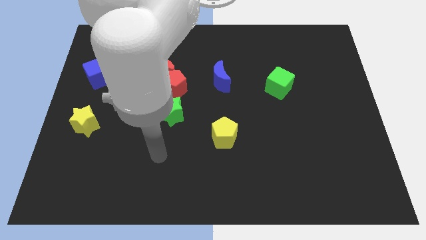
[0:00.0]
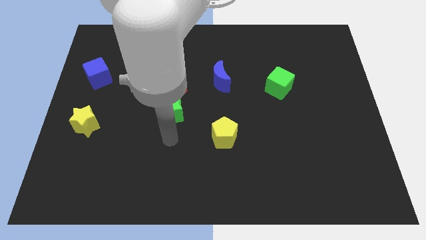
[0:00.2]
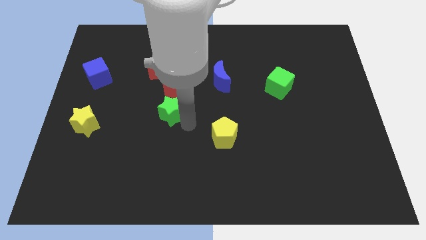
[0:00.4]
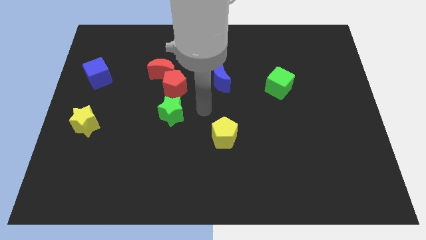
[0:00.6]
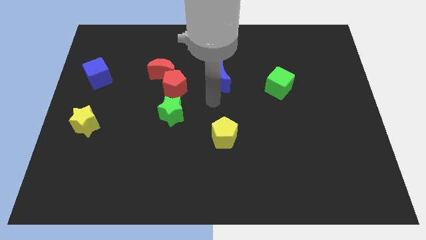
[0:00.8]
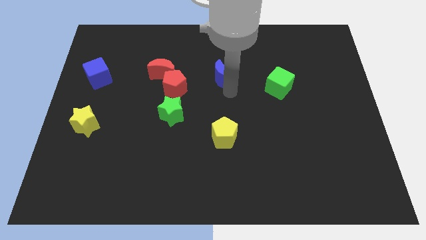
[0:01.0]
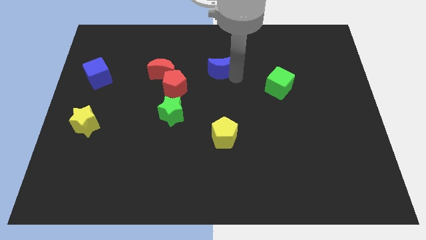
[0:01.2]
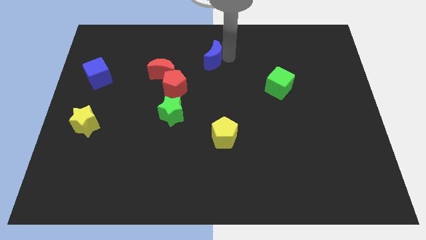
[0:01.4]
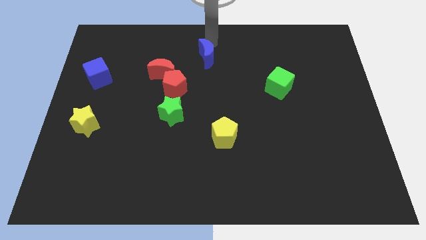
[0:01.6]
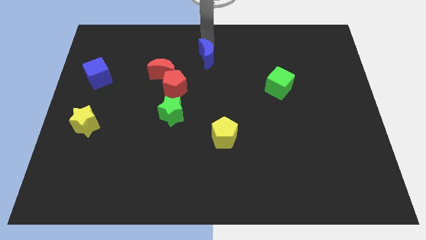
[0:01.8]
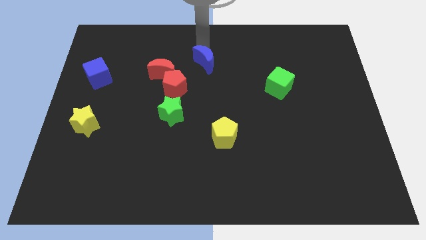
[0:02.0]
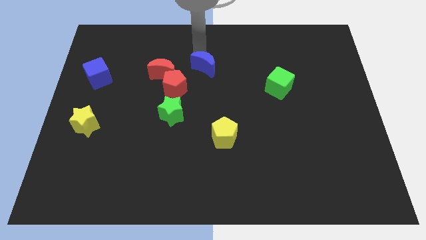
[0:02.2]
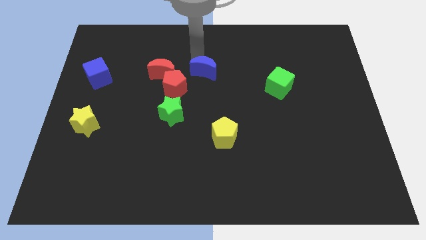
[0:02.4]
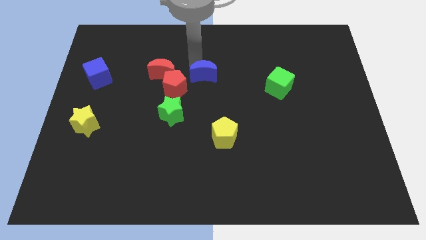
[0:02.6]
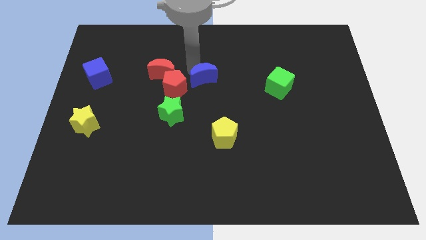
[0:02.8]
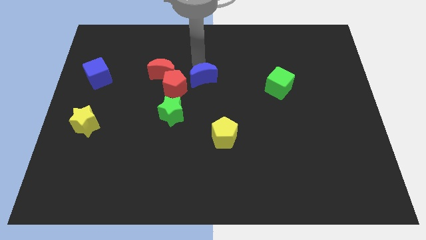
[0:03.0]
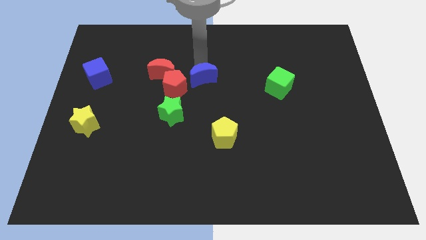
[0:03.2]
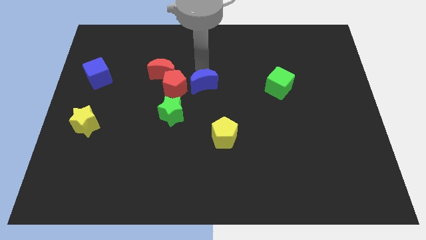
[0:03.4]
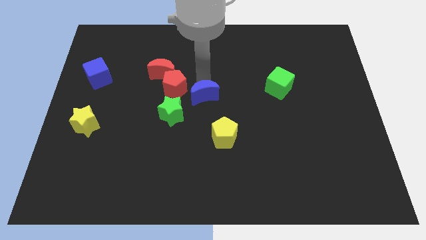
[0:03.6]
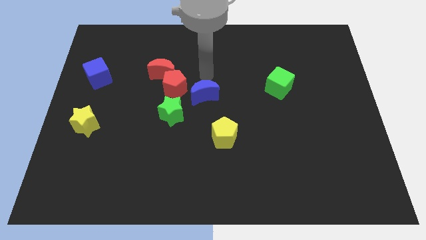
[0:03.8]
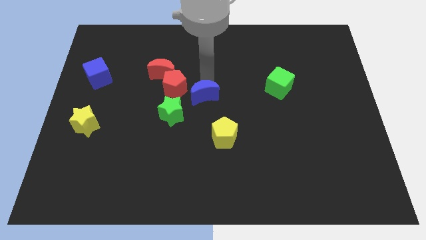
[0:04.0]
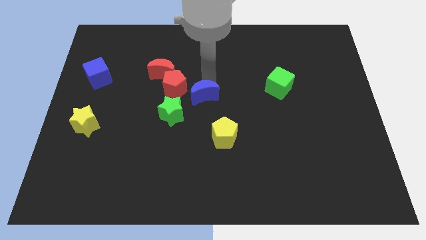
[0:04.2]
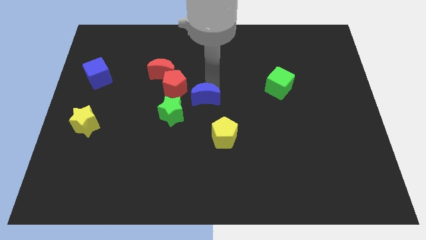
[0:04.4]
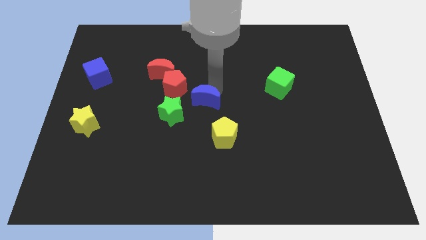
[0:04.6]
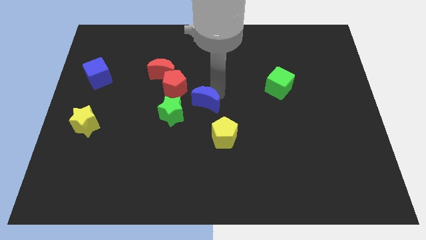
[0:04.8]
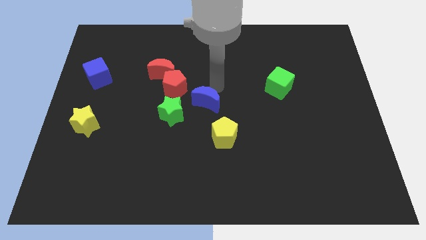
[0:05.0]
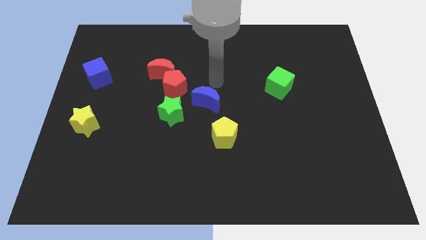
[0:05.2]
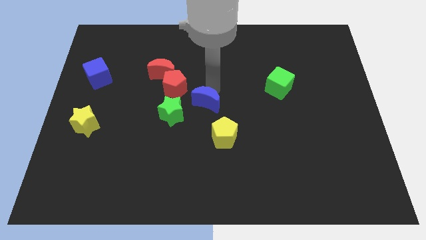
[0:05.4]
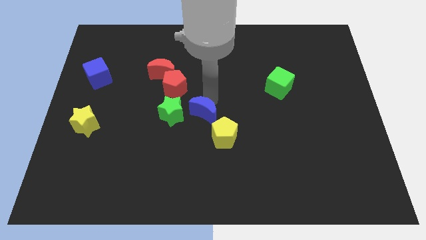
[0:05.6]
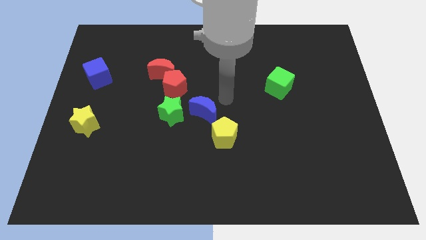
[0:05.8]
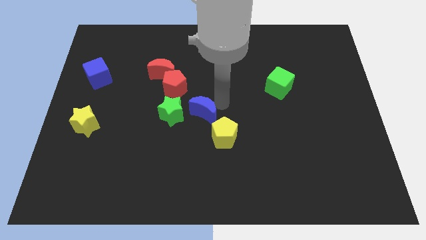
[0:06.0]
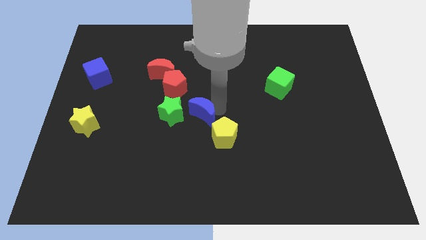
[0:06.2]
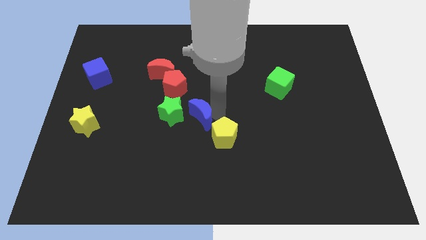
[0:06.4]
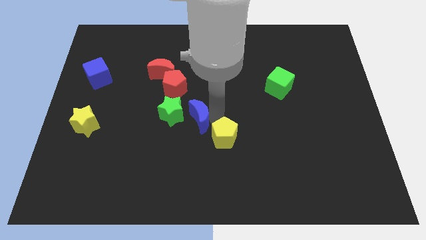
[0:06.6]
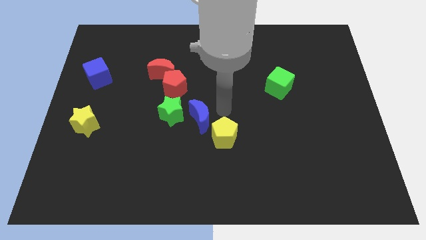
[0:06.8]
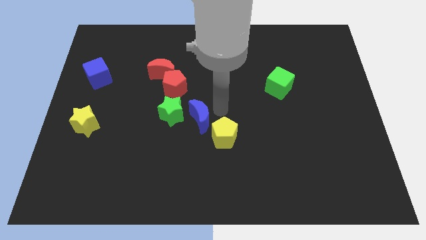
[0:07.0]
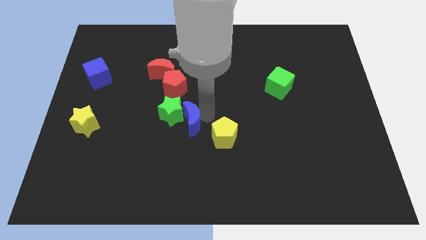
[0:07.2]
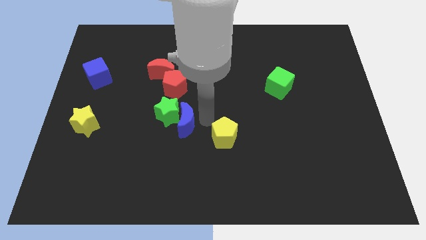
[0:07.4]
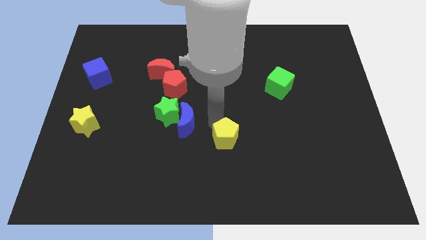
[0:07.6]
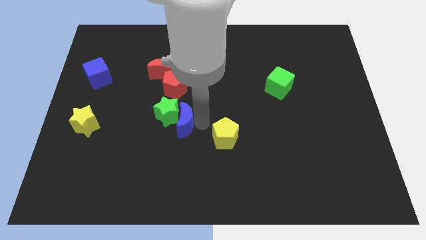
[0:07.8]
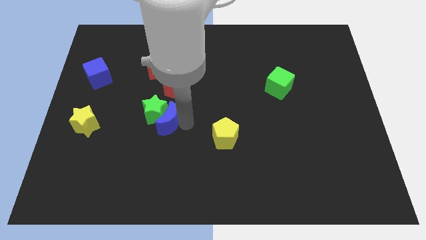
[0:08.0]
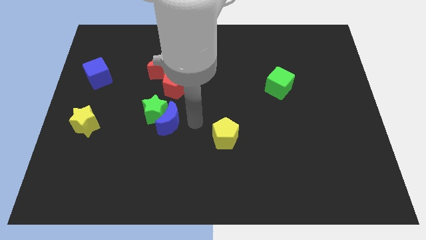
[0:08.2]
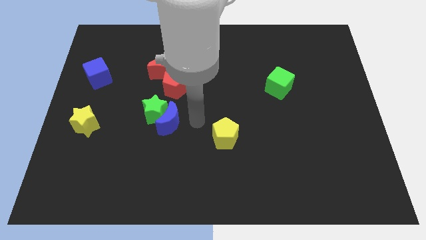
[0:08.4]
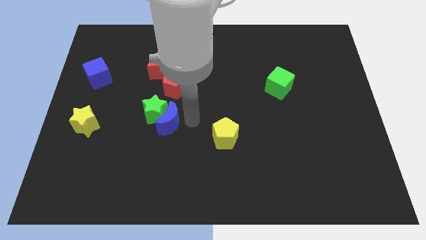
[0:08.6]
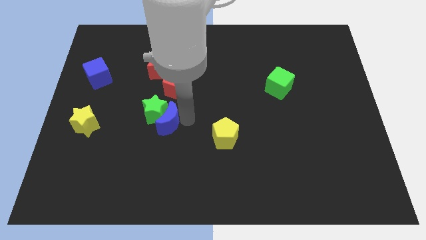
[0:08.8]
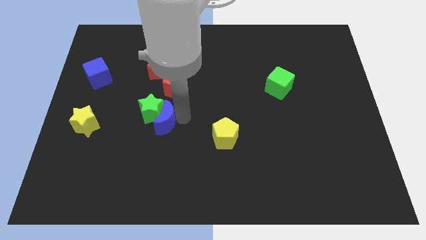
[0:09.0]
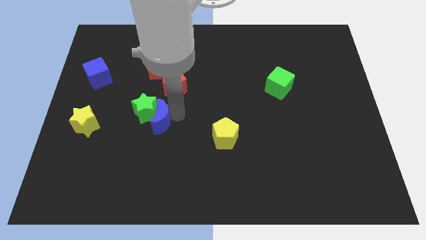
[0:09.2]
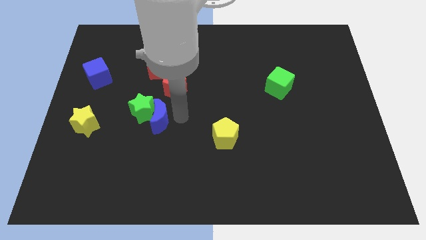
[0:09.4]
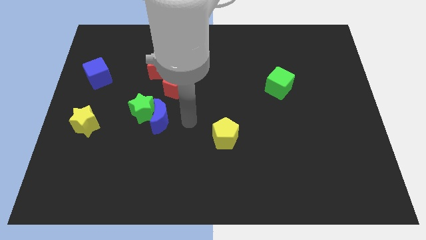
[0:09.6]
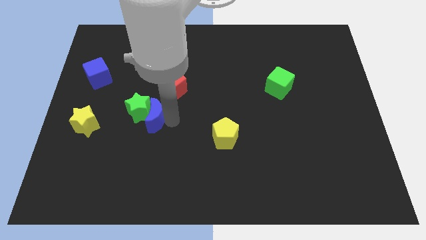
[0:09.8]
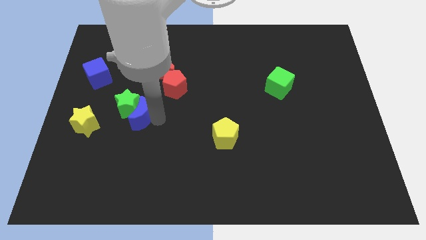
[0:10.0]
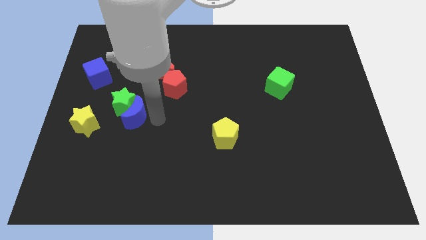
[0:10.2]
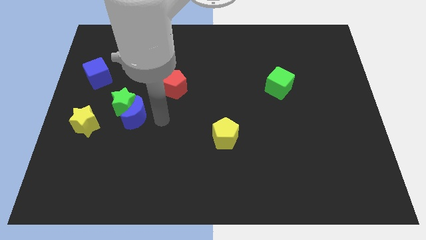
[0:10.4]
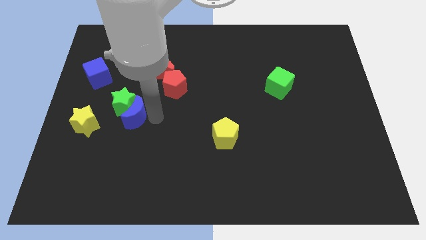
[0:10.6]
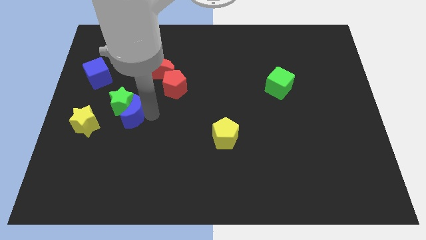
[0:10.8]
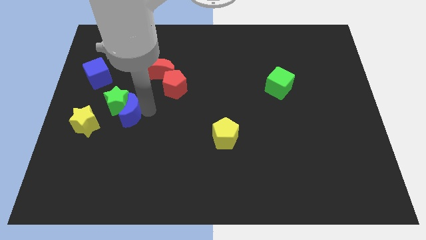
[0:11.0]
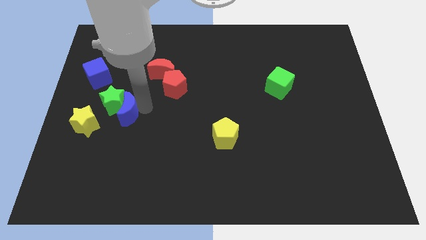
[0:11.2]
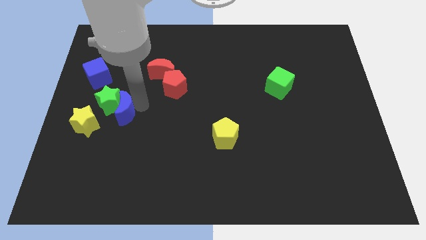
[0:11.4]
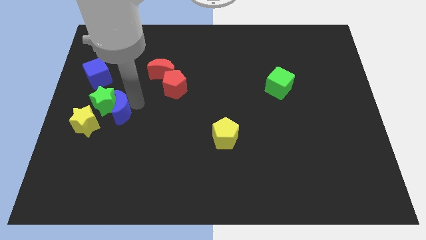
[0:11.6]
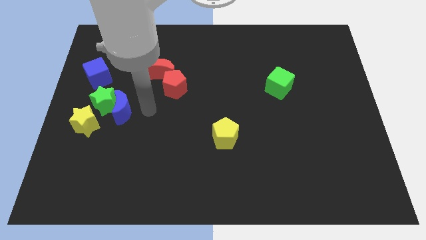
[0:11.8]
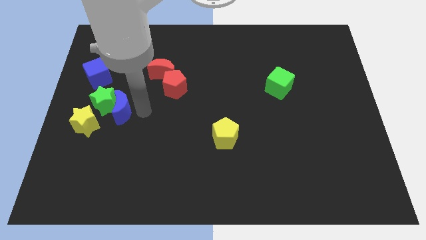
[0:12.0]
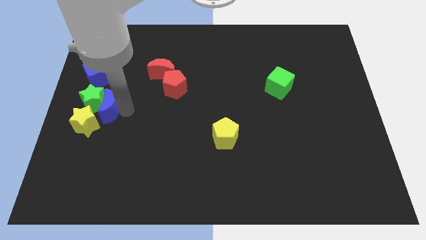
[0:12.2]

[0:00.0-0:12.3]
slide the blue moon to the bottom side of the blue cube

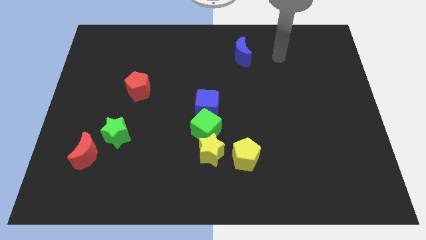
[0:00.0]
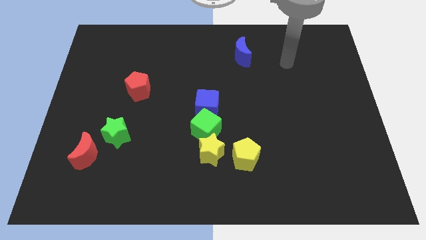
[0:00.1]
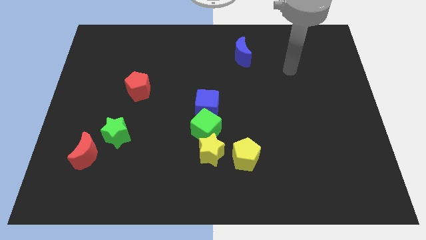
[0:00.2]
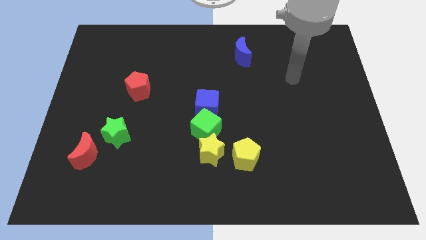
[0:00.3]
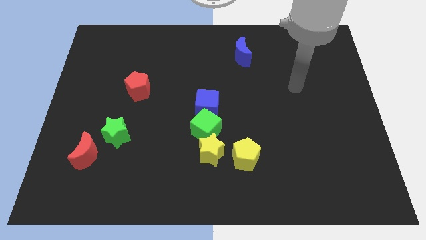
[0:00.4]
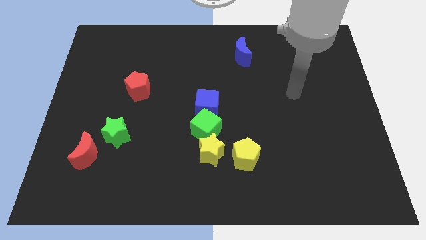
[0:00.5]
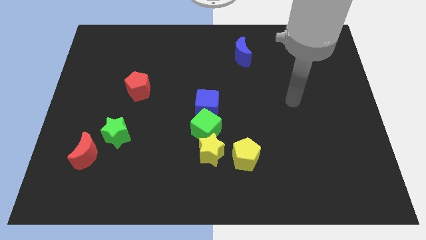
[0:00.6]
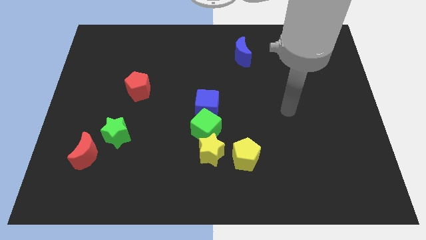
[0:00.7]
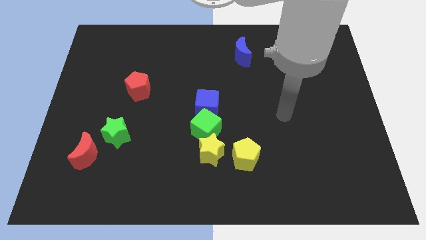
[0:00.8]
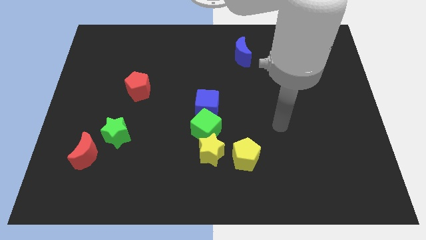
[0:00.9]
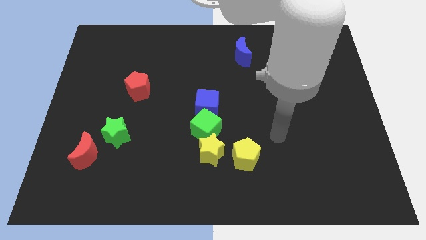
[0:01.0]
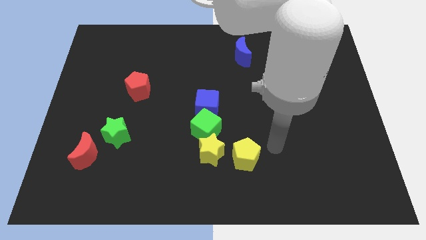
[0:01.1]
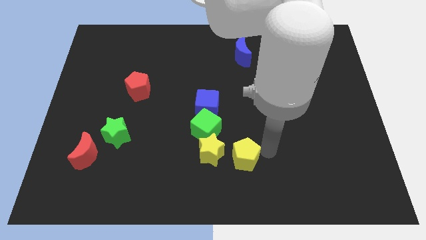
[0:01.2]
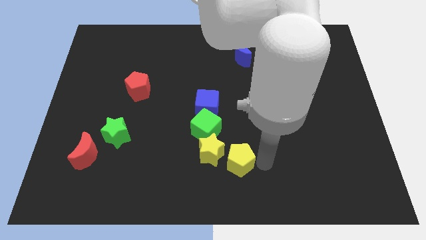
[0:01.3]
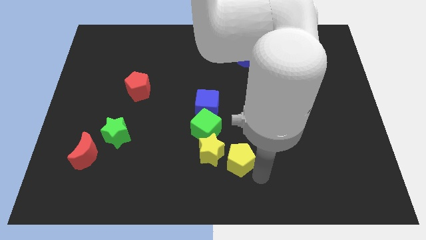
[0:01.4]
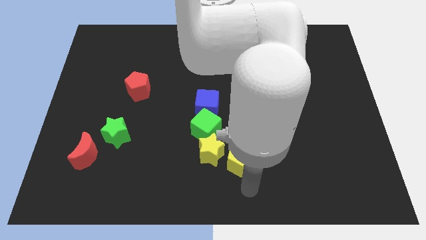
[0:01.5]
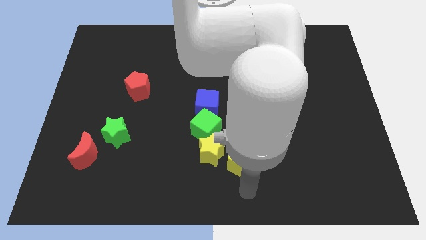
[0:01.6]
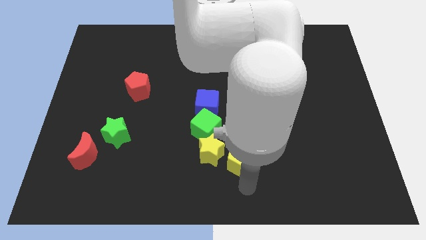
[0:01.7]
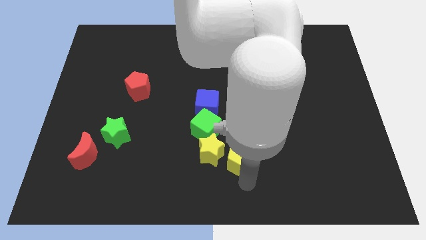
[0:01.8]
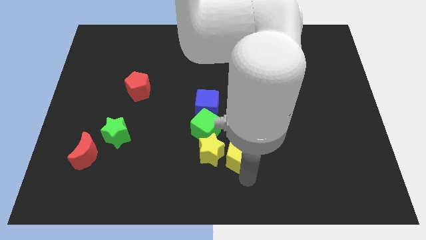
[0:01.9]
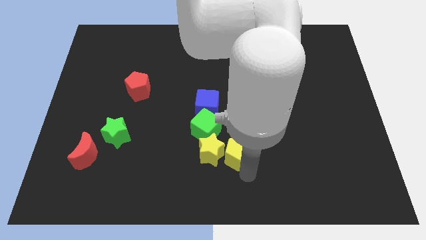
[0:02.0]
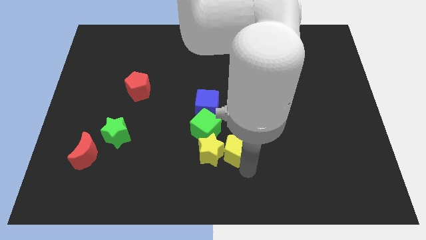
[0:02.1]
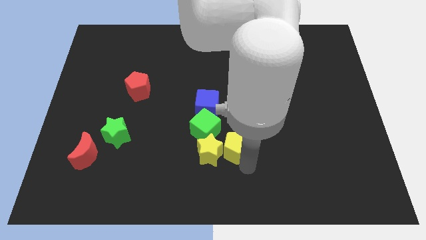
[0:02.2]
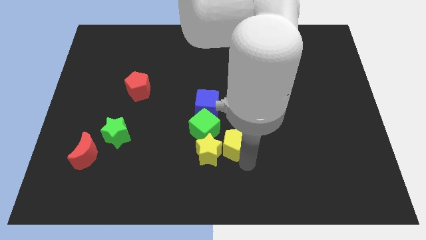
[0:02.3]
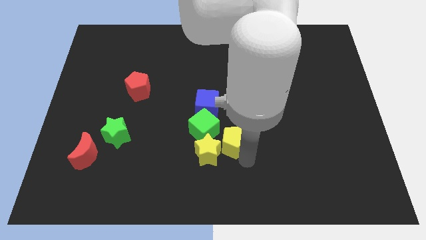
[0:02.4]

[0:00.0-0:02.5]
push the yellow pentagon to the bottom right of the blue cube
